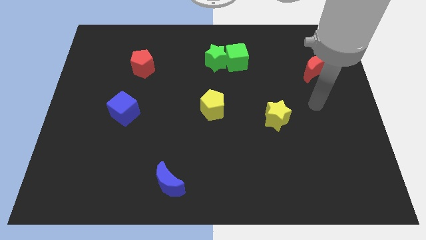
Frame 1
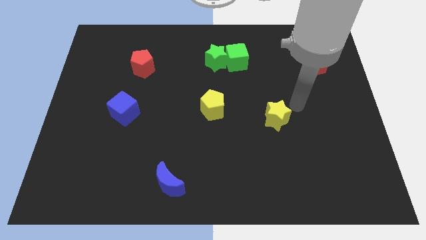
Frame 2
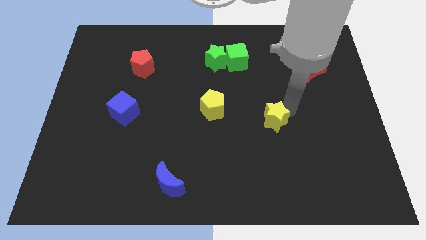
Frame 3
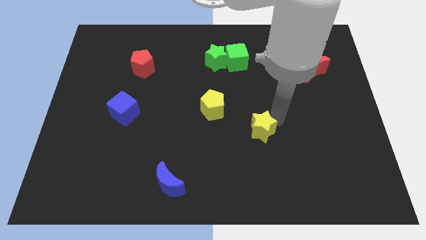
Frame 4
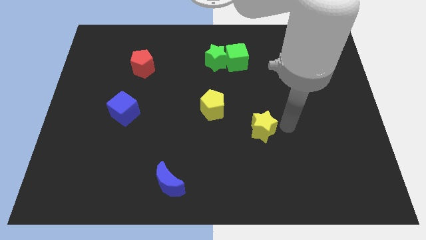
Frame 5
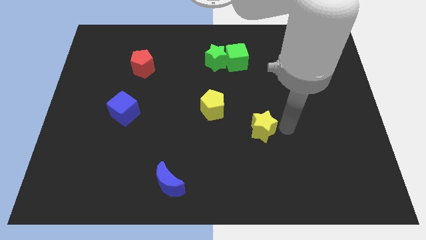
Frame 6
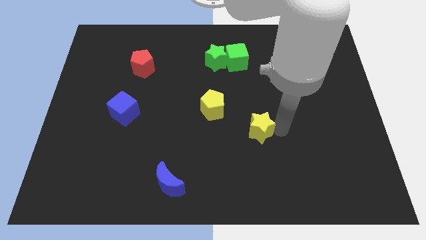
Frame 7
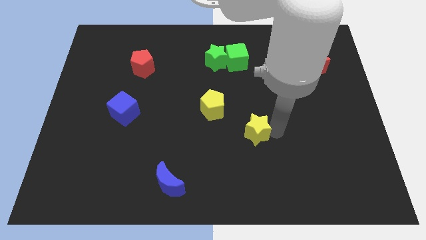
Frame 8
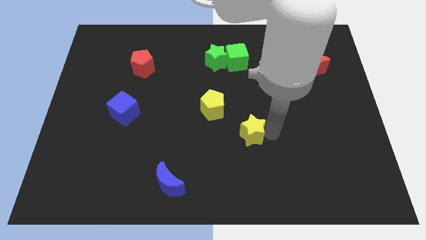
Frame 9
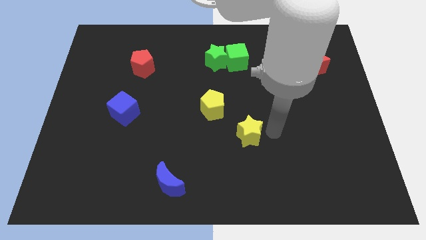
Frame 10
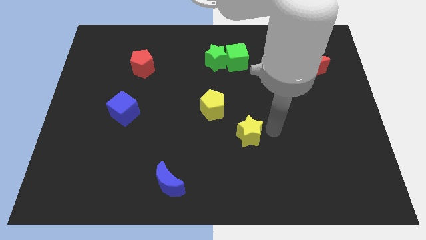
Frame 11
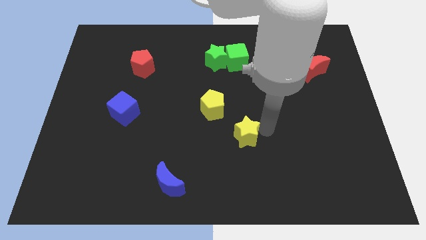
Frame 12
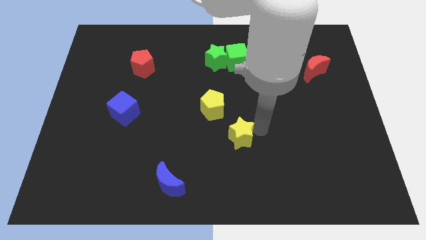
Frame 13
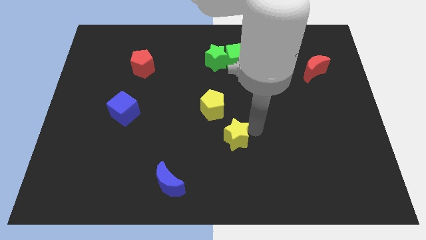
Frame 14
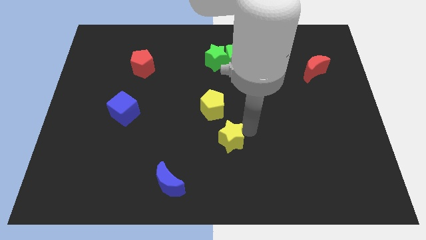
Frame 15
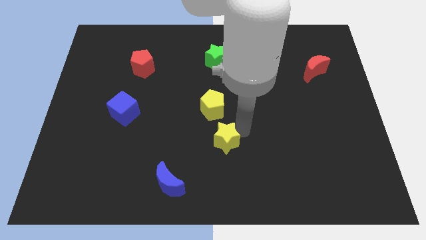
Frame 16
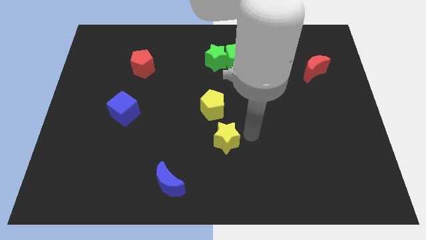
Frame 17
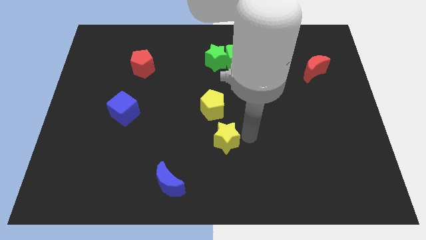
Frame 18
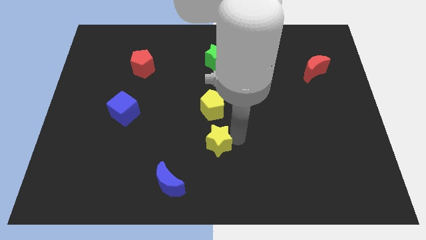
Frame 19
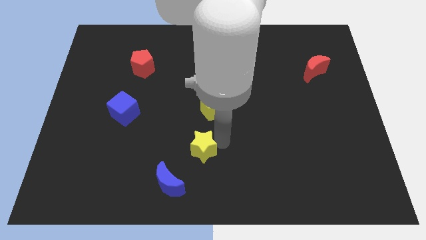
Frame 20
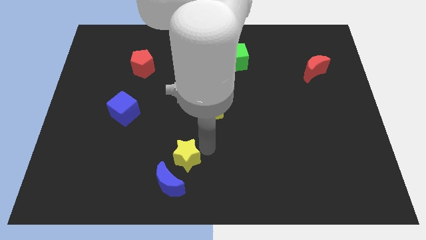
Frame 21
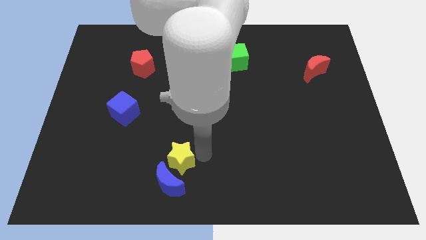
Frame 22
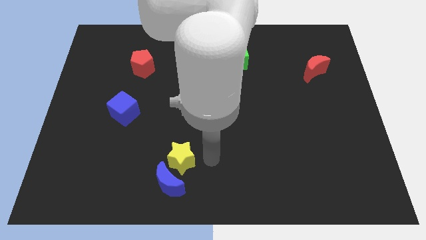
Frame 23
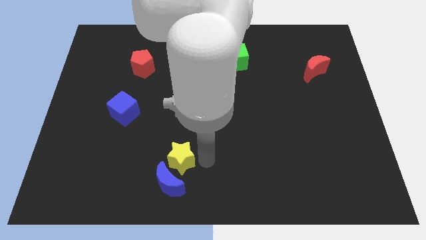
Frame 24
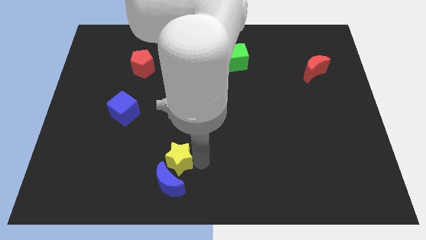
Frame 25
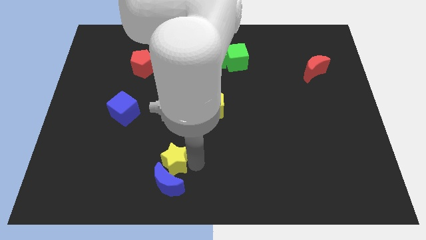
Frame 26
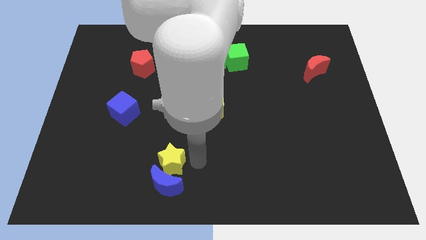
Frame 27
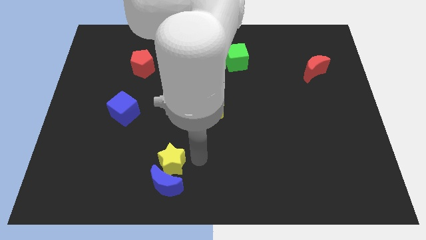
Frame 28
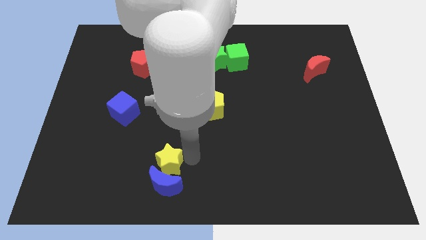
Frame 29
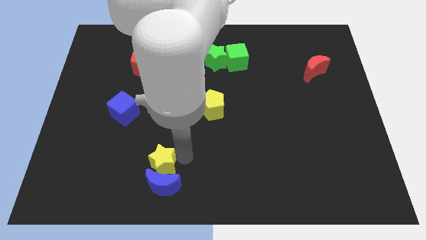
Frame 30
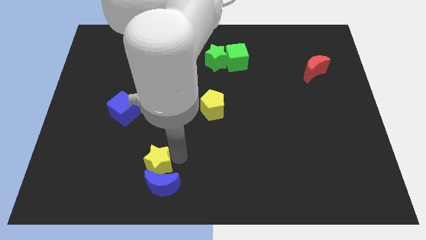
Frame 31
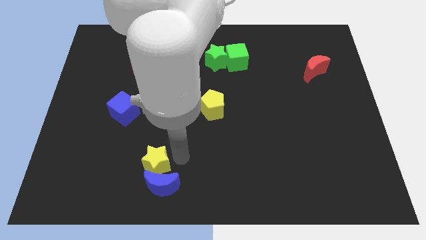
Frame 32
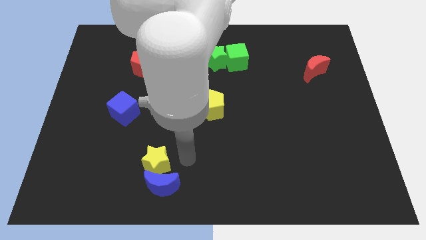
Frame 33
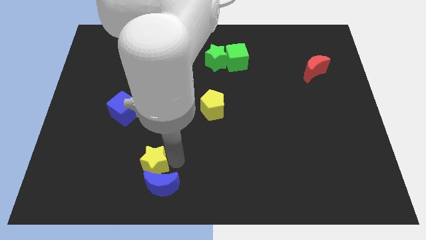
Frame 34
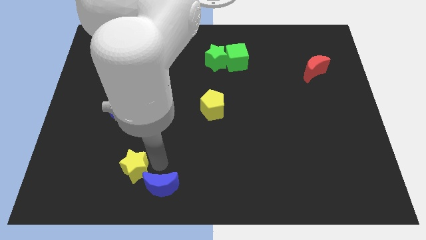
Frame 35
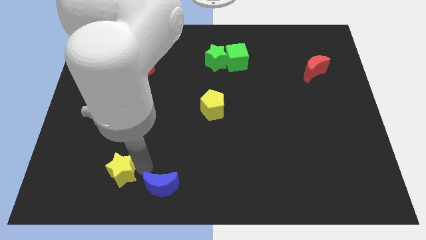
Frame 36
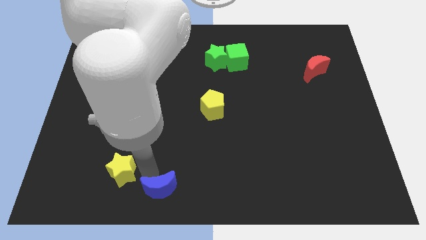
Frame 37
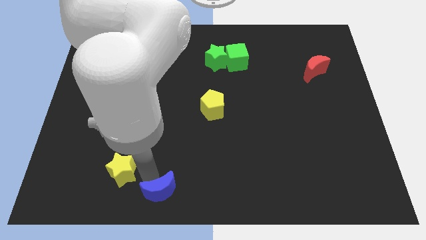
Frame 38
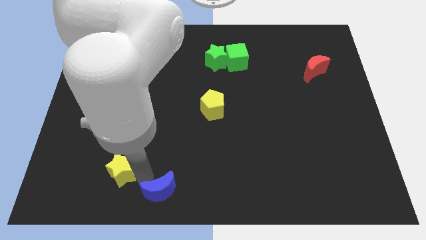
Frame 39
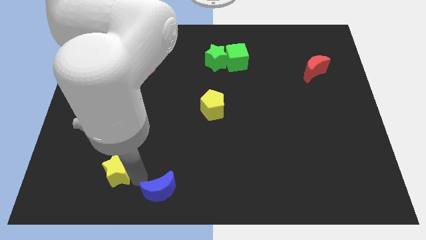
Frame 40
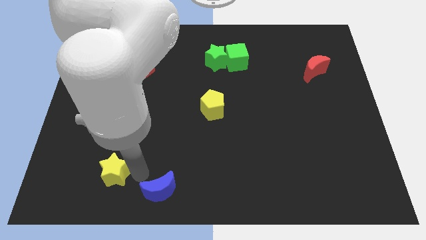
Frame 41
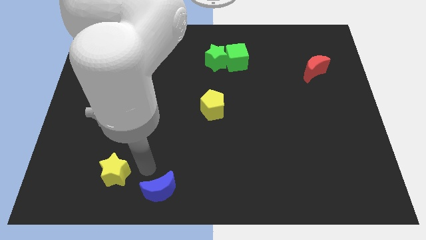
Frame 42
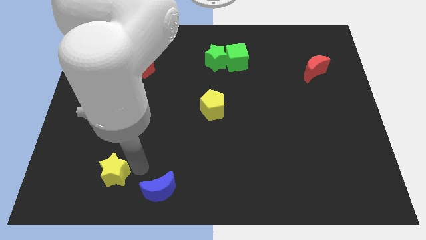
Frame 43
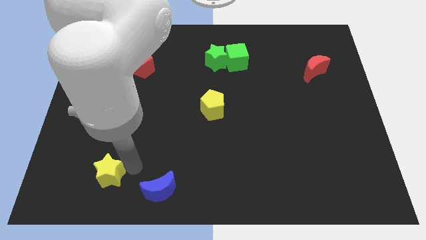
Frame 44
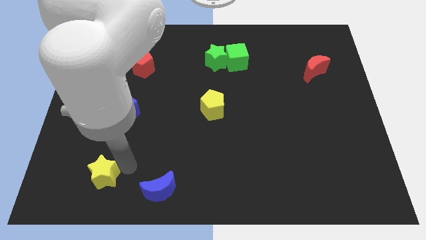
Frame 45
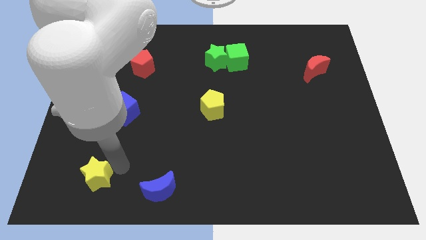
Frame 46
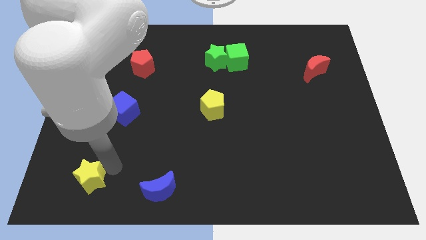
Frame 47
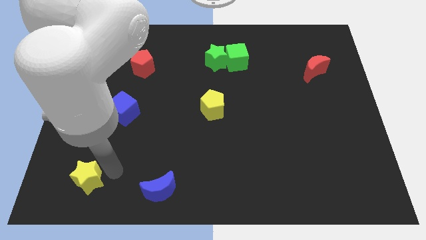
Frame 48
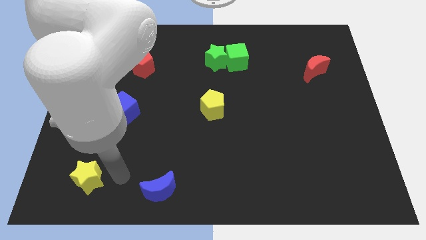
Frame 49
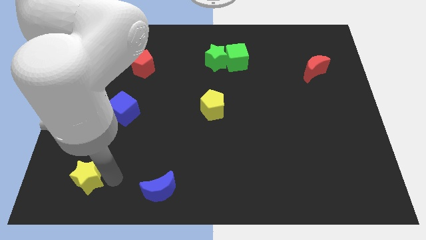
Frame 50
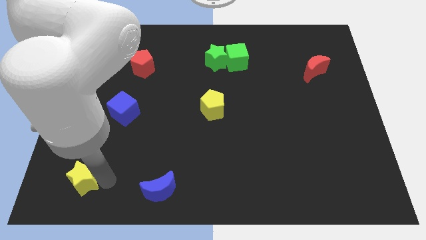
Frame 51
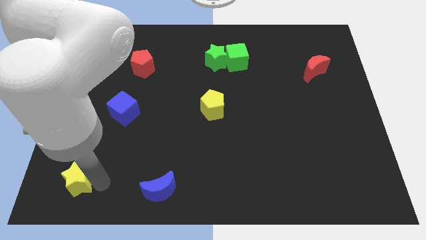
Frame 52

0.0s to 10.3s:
slide the yellow star to the bottom left of the board

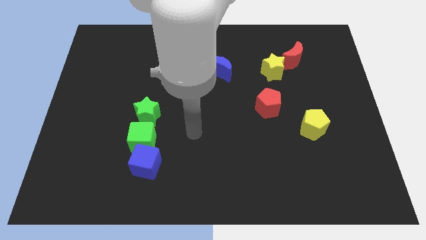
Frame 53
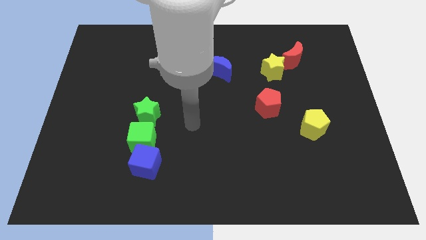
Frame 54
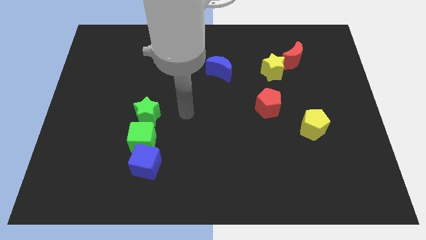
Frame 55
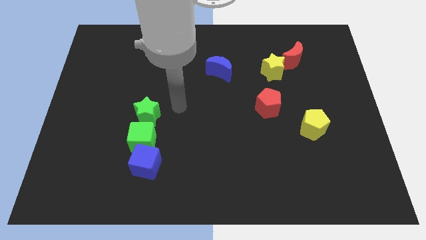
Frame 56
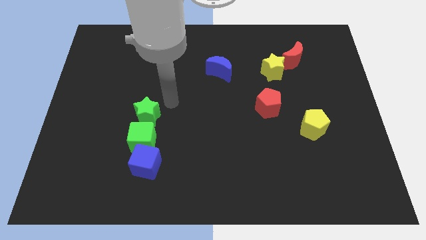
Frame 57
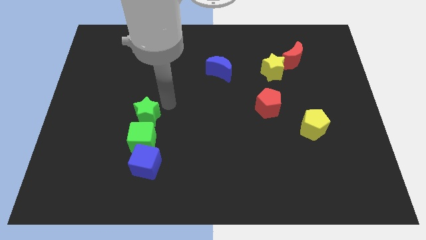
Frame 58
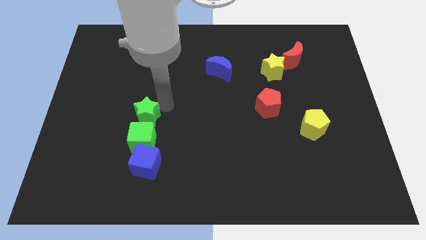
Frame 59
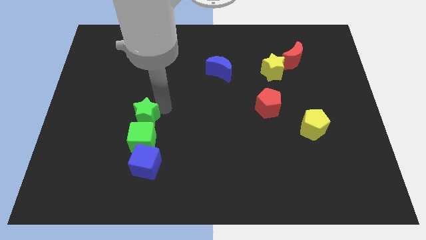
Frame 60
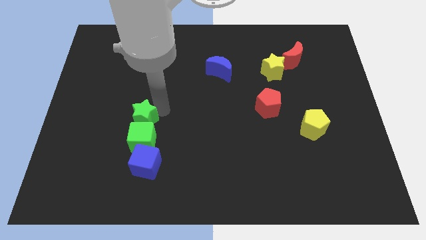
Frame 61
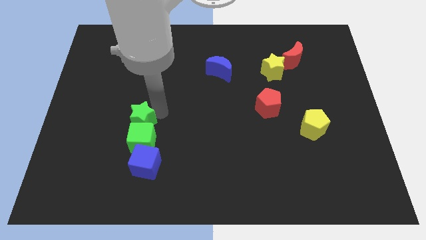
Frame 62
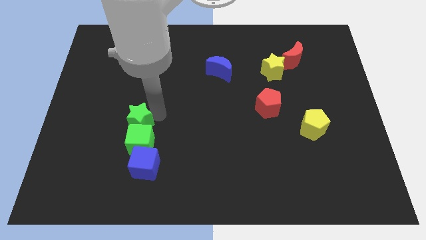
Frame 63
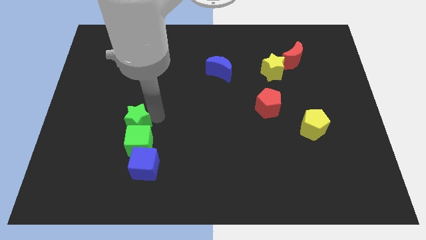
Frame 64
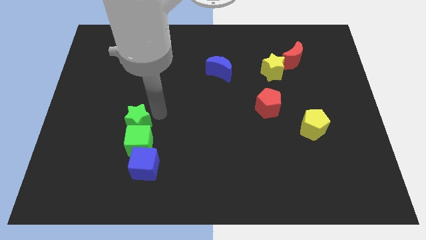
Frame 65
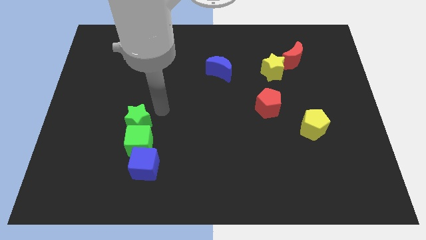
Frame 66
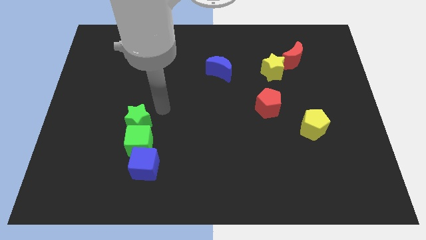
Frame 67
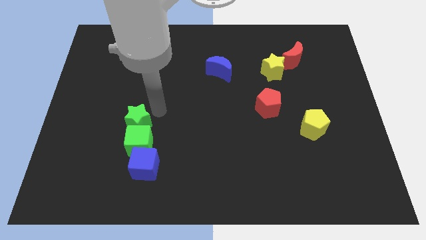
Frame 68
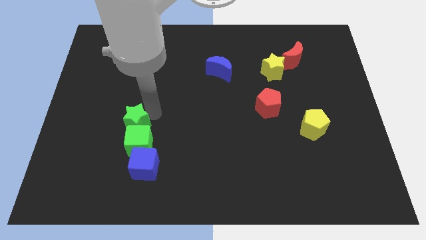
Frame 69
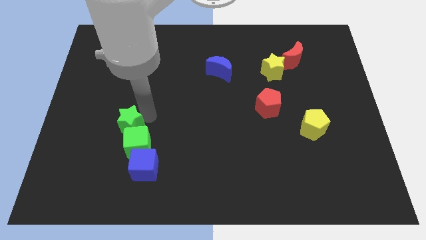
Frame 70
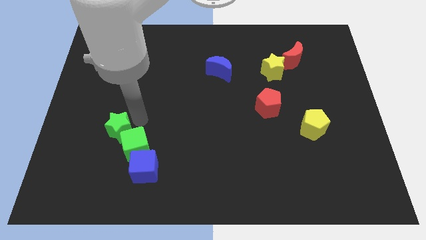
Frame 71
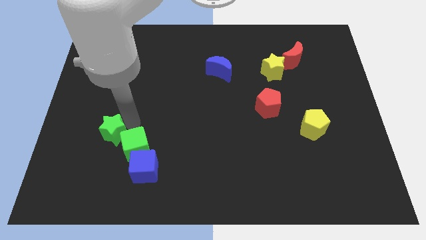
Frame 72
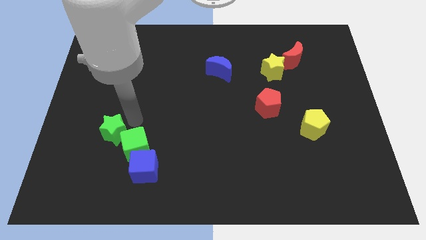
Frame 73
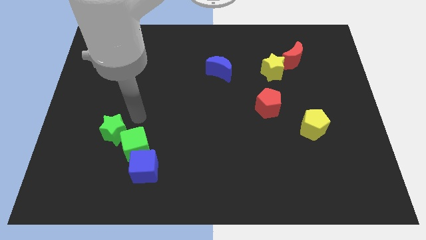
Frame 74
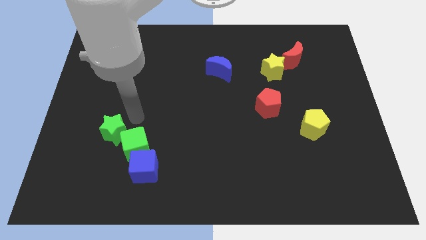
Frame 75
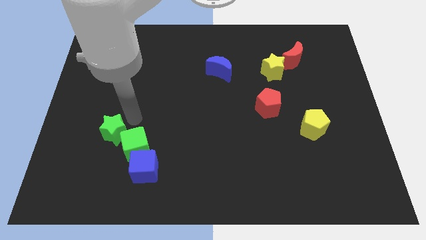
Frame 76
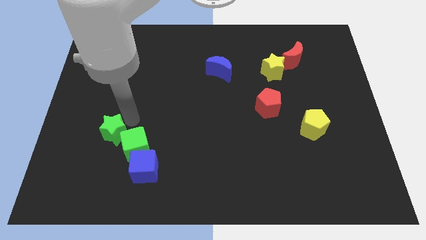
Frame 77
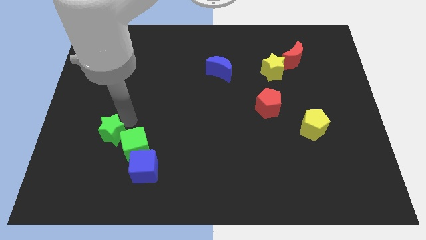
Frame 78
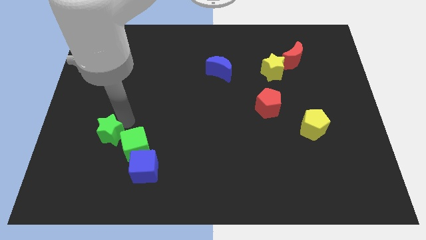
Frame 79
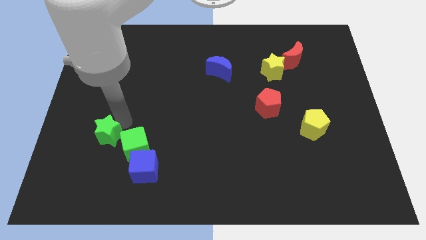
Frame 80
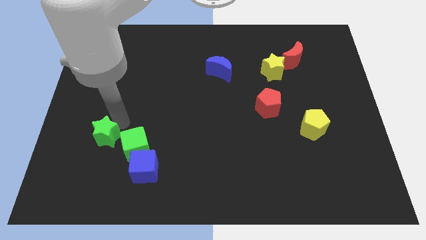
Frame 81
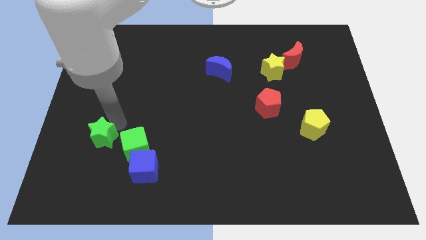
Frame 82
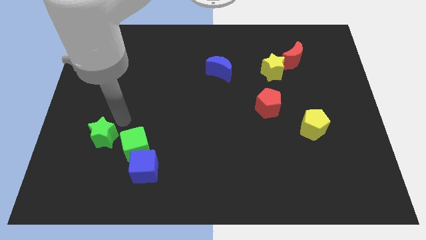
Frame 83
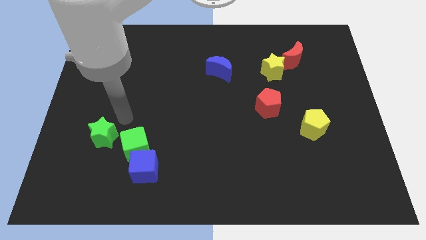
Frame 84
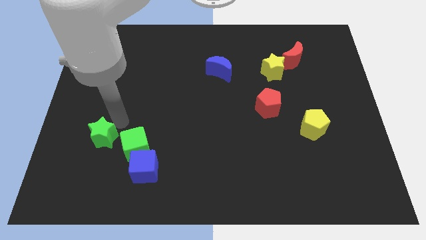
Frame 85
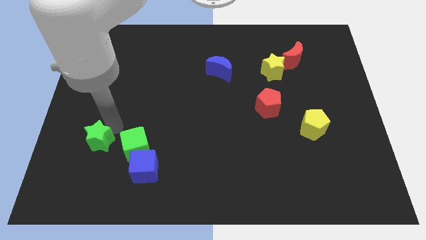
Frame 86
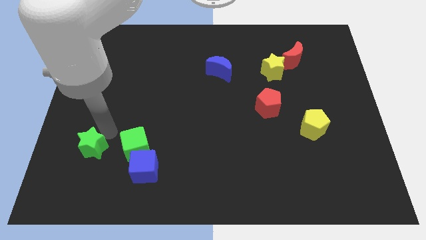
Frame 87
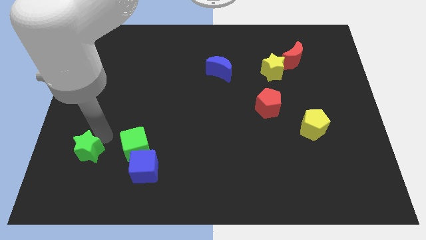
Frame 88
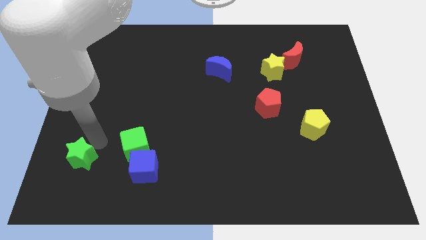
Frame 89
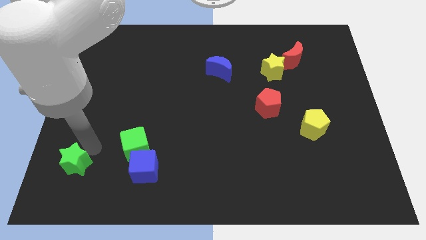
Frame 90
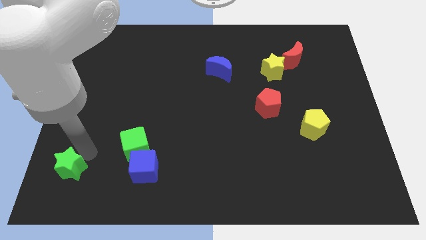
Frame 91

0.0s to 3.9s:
push the green star to the bottom left corner
